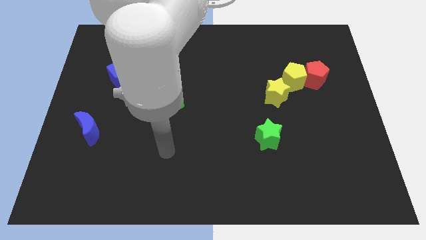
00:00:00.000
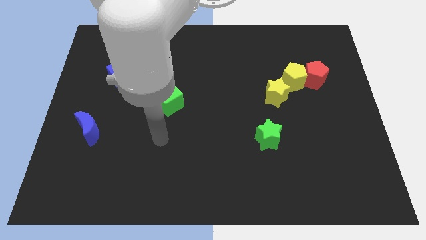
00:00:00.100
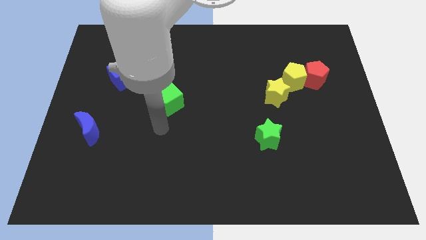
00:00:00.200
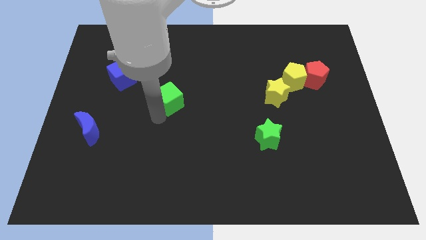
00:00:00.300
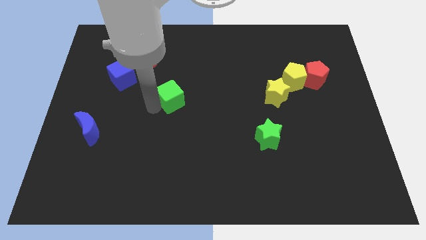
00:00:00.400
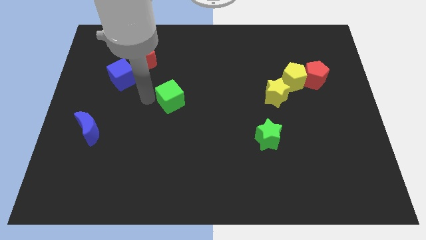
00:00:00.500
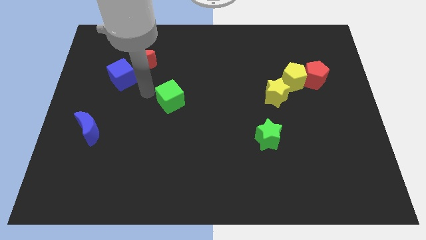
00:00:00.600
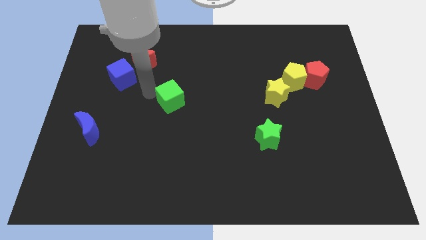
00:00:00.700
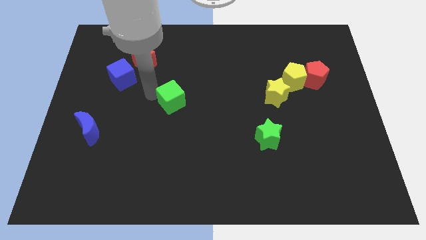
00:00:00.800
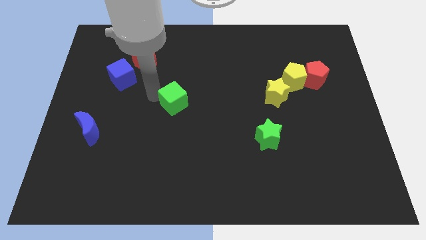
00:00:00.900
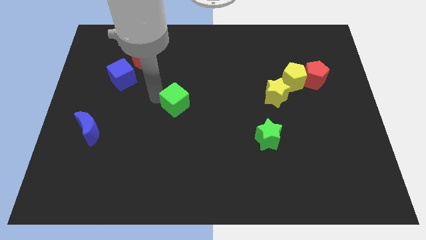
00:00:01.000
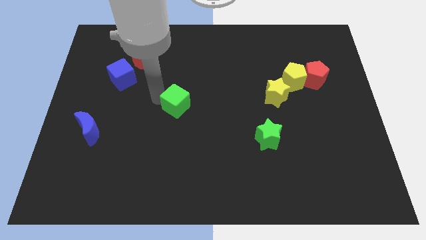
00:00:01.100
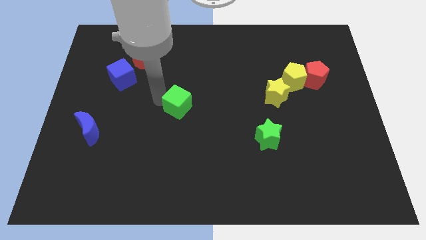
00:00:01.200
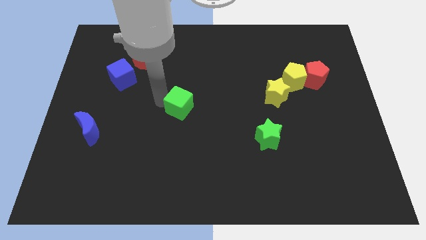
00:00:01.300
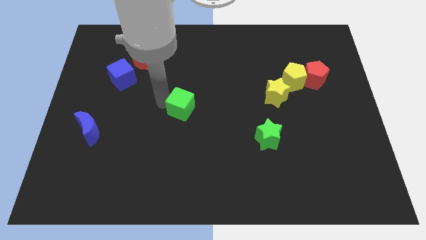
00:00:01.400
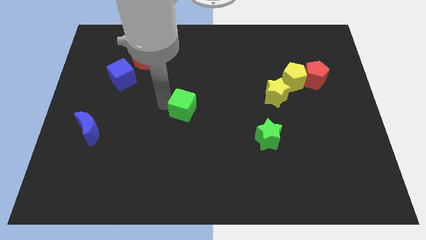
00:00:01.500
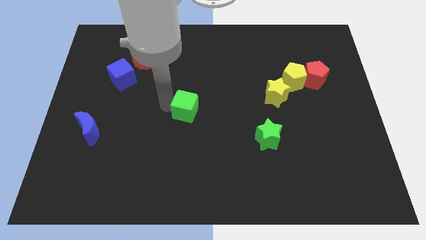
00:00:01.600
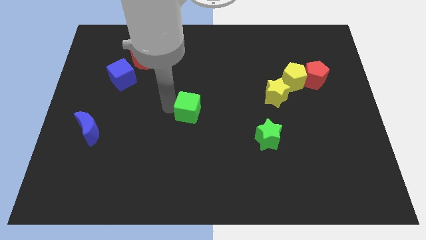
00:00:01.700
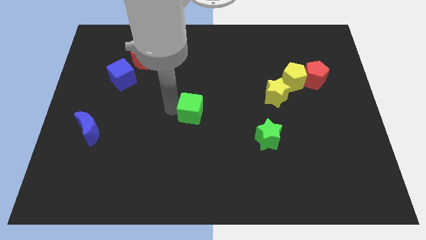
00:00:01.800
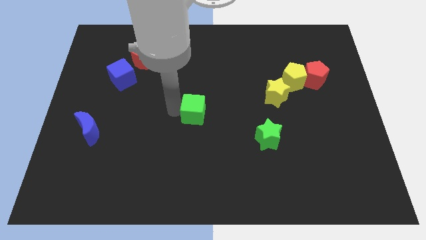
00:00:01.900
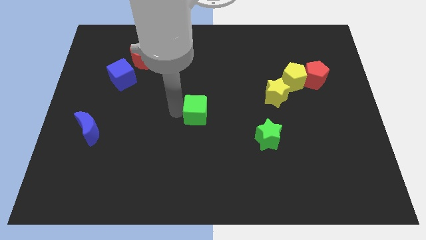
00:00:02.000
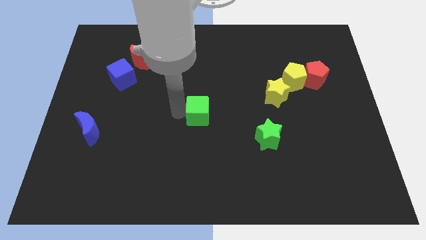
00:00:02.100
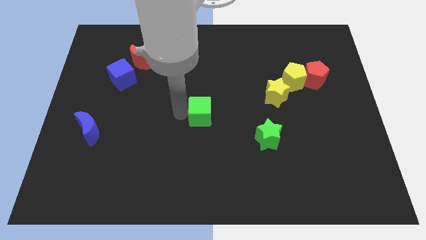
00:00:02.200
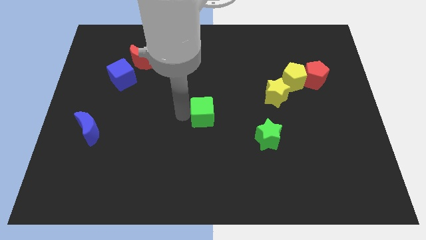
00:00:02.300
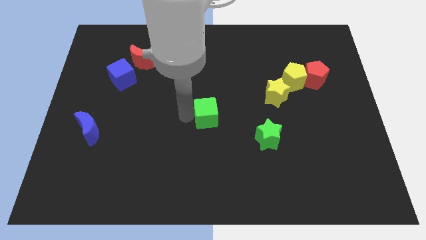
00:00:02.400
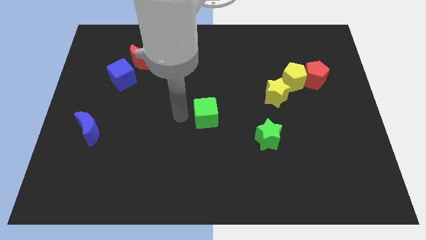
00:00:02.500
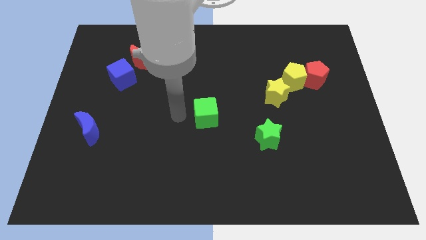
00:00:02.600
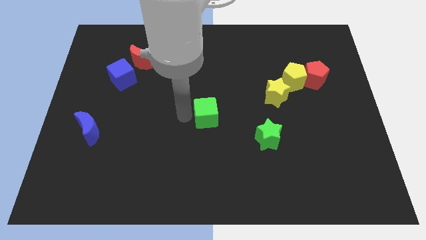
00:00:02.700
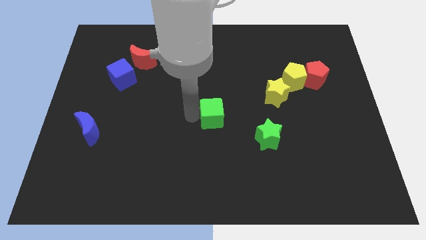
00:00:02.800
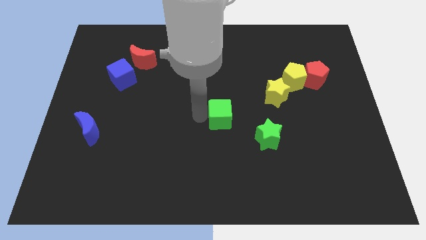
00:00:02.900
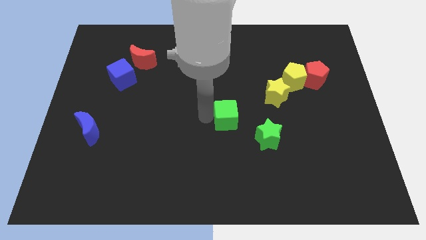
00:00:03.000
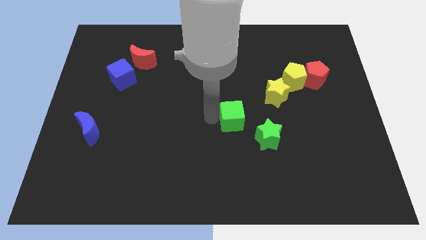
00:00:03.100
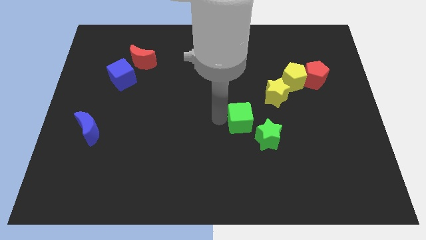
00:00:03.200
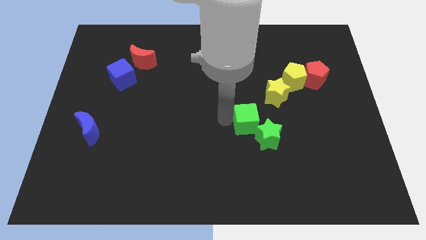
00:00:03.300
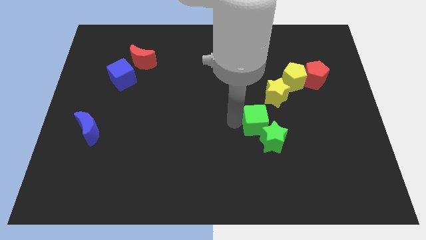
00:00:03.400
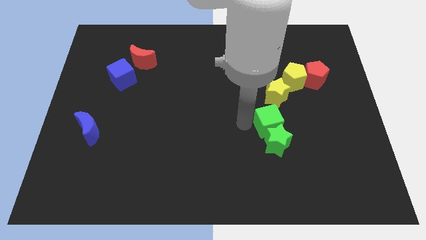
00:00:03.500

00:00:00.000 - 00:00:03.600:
push the green cube right

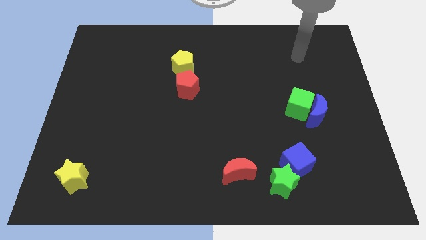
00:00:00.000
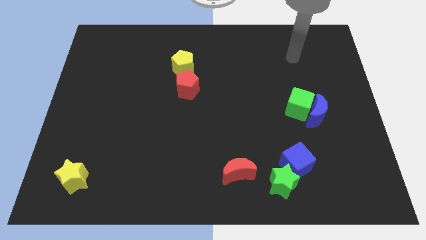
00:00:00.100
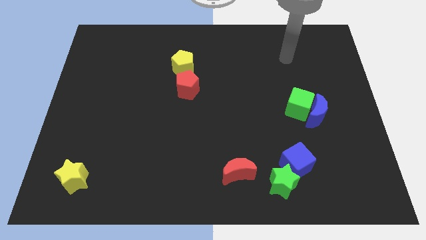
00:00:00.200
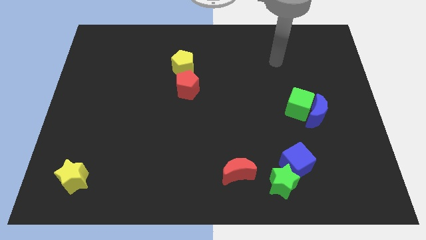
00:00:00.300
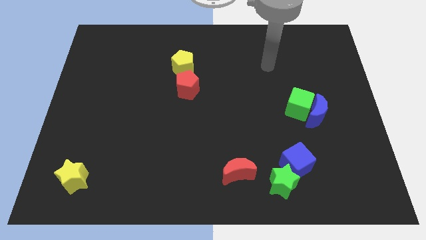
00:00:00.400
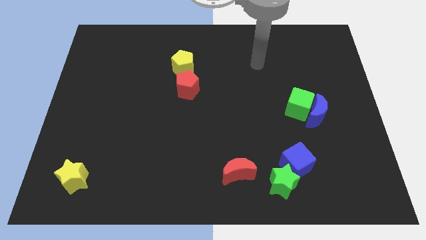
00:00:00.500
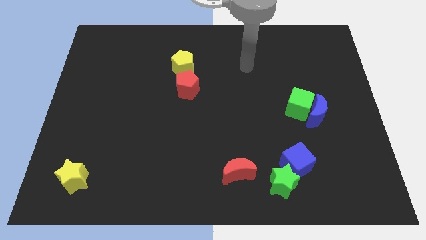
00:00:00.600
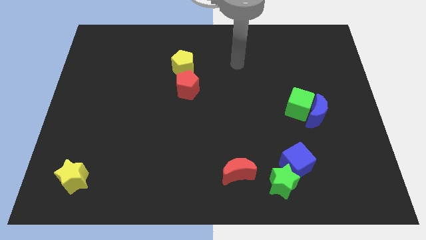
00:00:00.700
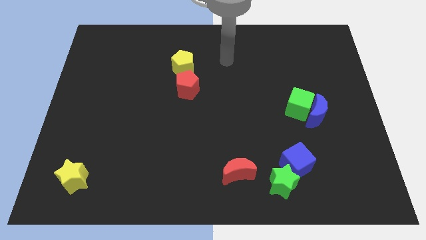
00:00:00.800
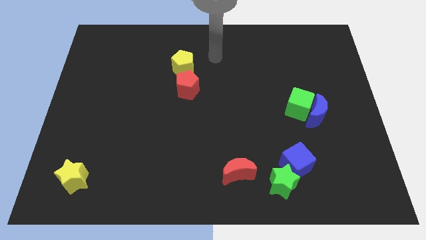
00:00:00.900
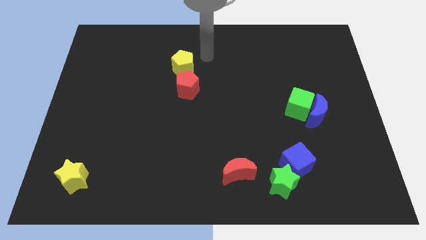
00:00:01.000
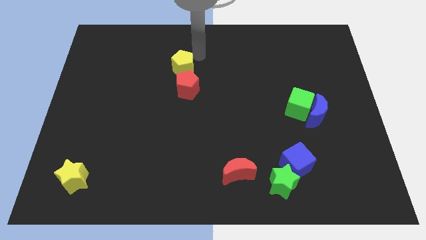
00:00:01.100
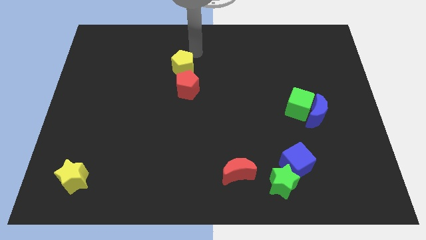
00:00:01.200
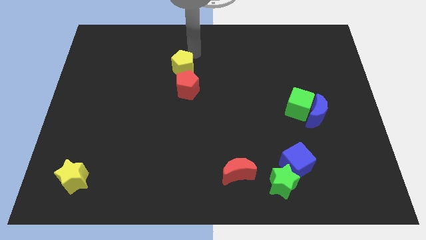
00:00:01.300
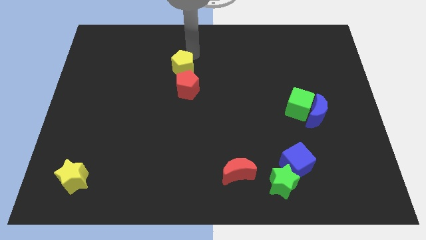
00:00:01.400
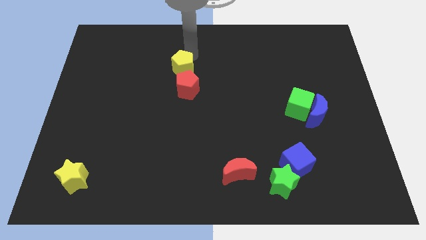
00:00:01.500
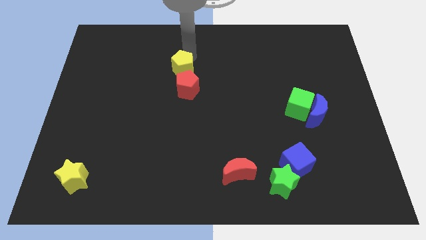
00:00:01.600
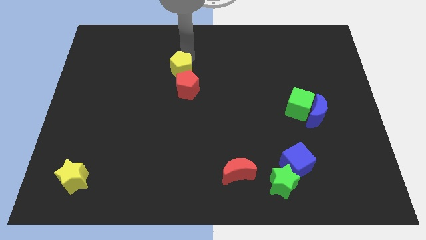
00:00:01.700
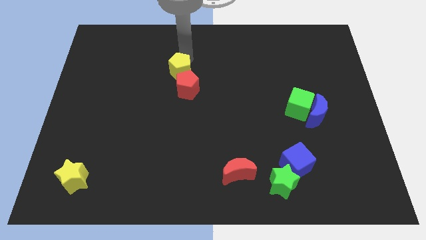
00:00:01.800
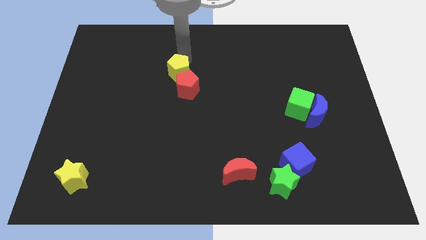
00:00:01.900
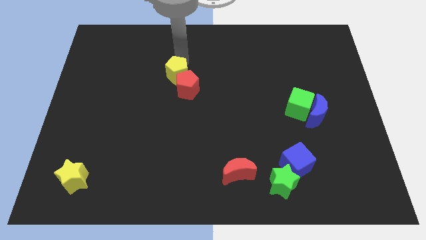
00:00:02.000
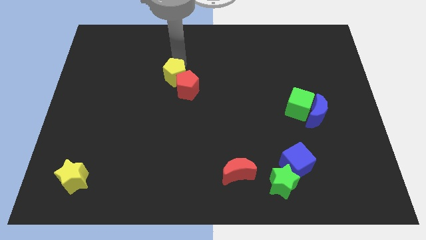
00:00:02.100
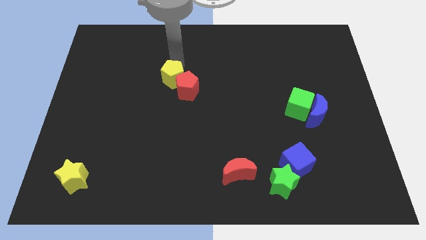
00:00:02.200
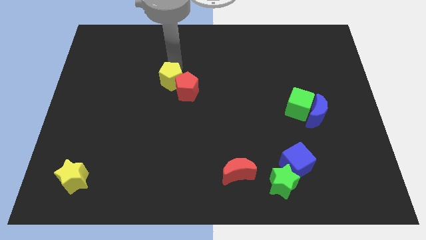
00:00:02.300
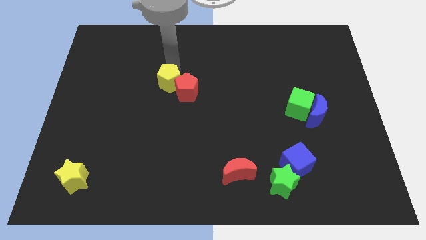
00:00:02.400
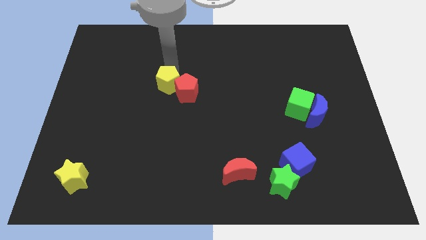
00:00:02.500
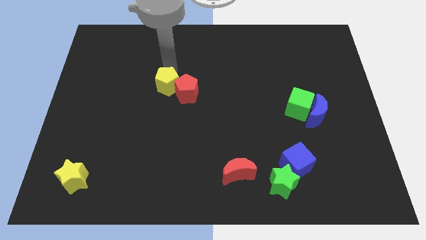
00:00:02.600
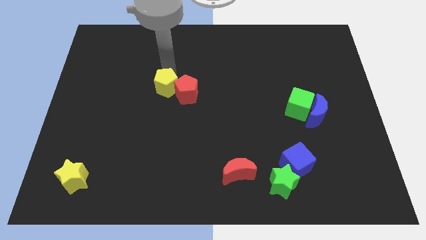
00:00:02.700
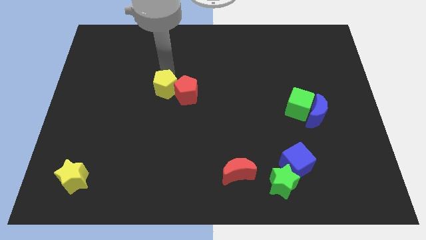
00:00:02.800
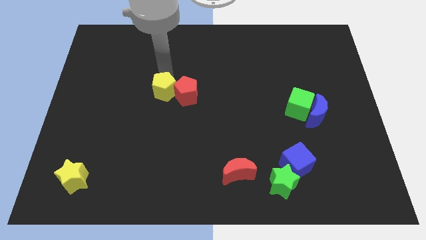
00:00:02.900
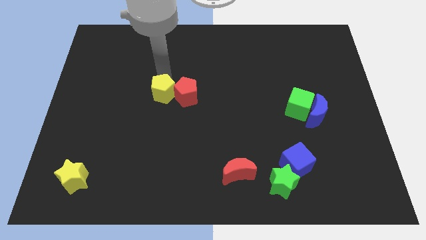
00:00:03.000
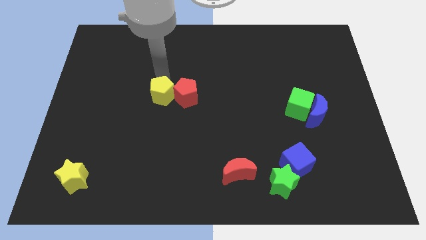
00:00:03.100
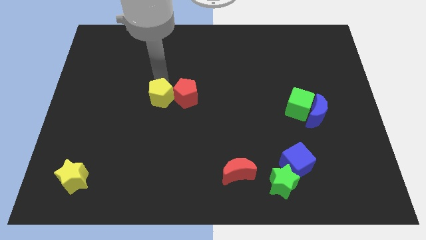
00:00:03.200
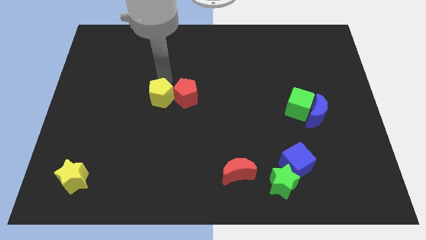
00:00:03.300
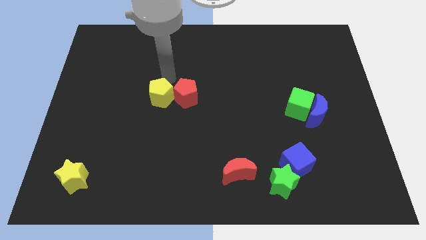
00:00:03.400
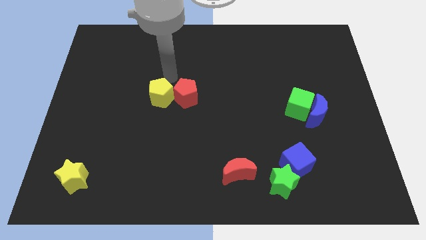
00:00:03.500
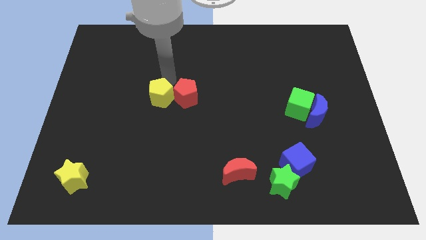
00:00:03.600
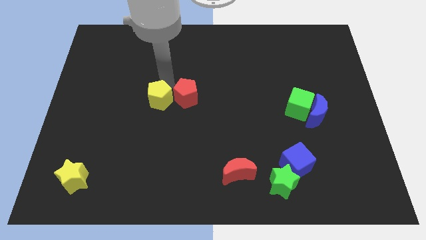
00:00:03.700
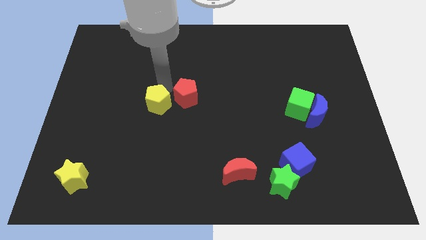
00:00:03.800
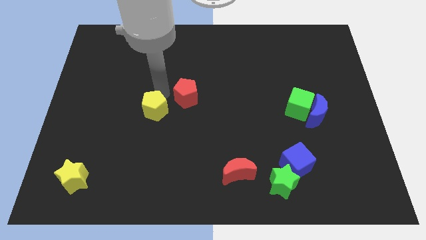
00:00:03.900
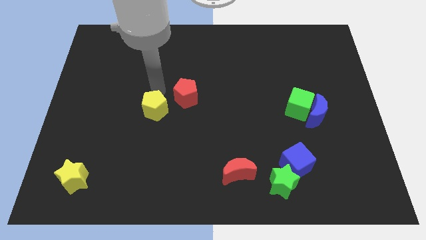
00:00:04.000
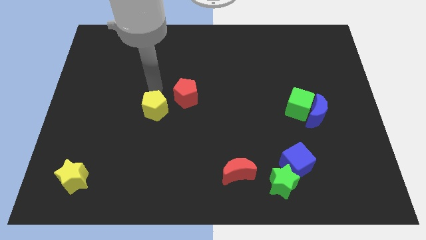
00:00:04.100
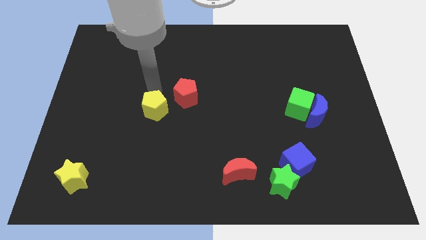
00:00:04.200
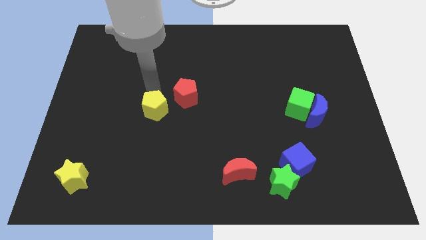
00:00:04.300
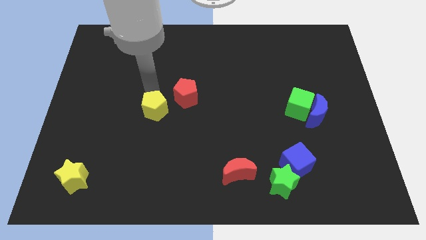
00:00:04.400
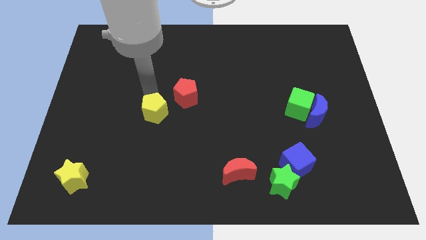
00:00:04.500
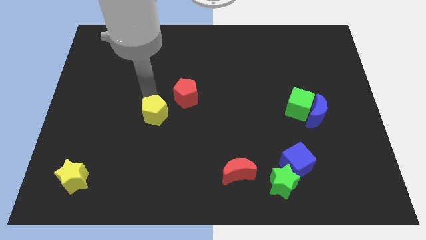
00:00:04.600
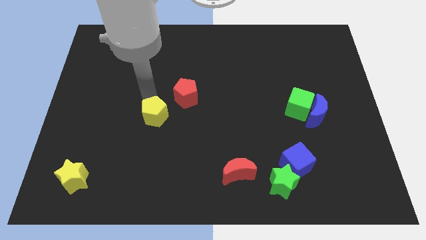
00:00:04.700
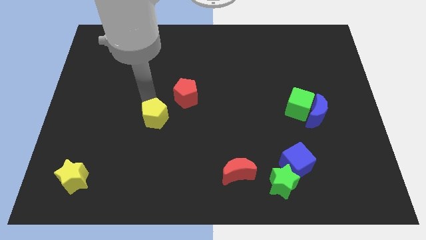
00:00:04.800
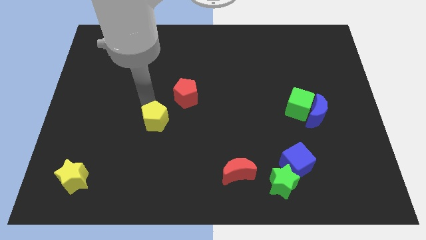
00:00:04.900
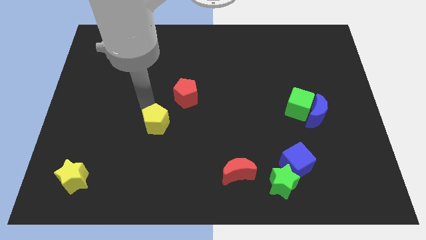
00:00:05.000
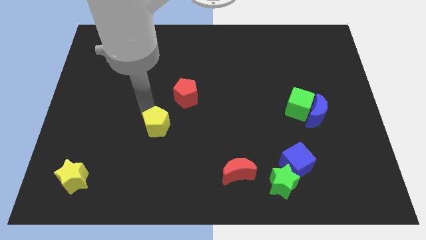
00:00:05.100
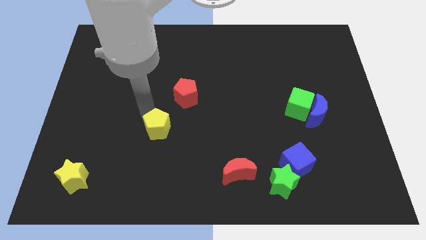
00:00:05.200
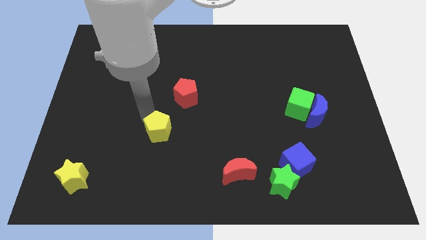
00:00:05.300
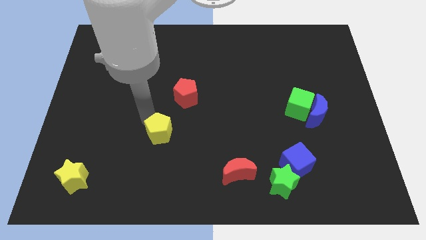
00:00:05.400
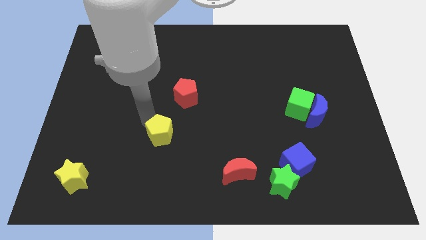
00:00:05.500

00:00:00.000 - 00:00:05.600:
move the yellow pentagon downwards
